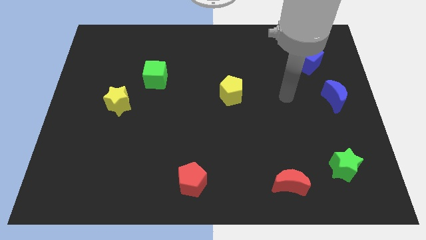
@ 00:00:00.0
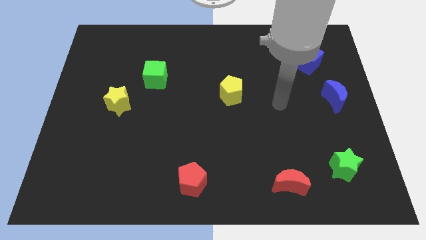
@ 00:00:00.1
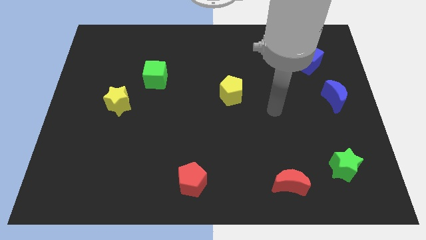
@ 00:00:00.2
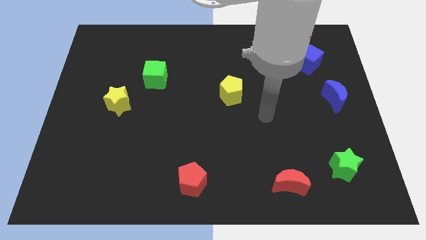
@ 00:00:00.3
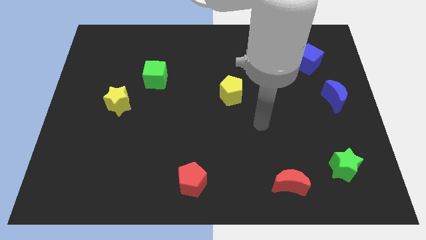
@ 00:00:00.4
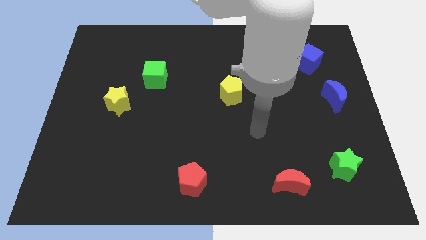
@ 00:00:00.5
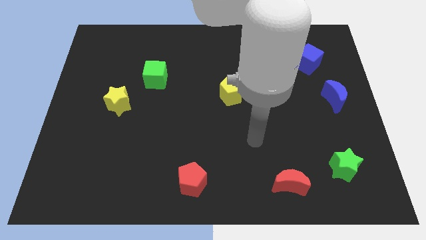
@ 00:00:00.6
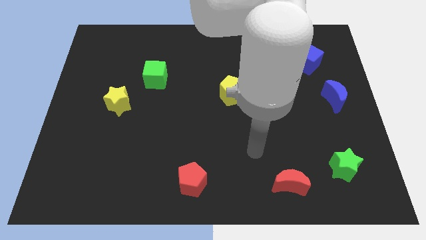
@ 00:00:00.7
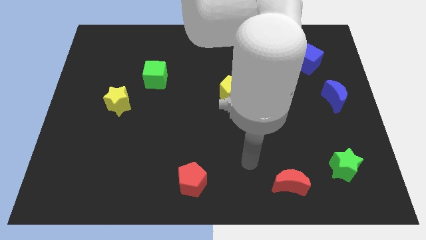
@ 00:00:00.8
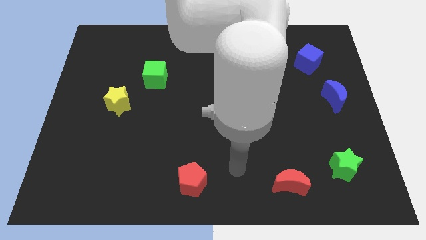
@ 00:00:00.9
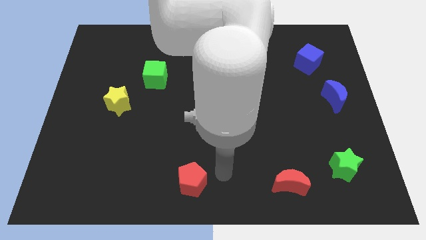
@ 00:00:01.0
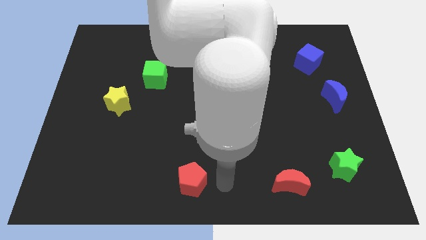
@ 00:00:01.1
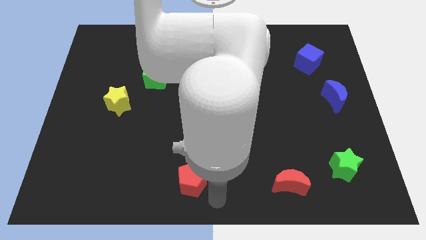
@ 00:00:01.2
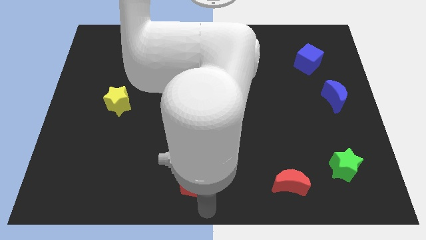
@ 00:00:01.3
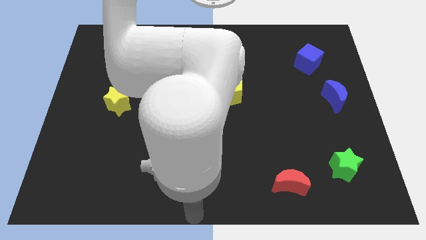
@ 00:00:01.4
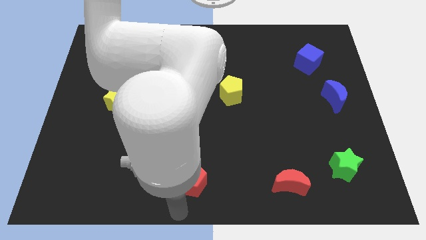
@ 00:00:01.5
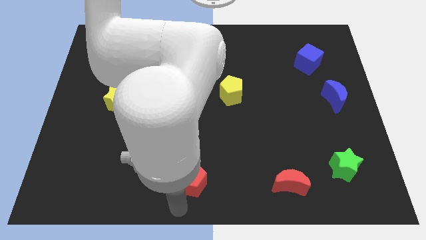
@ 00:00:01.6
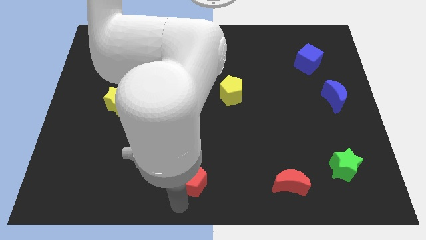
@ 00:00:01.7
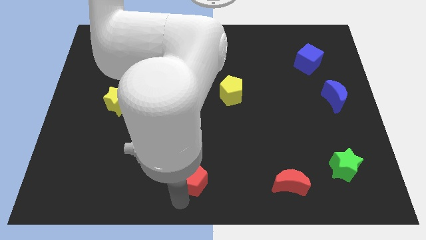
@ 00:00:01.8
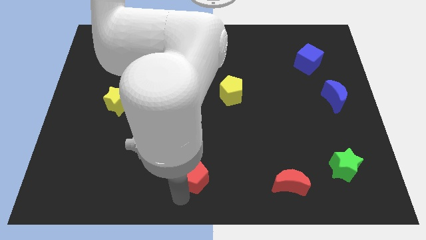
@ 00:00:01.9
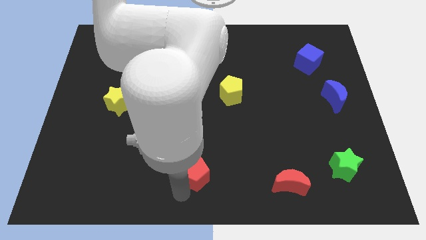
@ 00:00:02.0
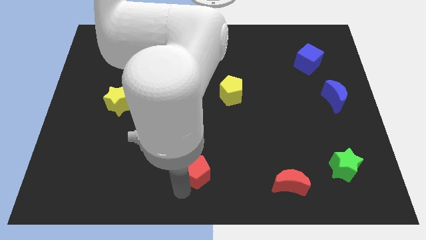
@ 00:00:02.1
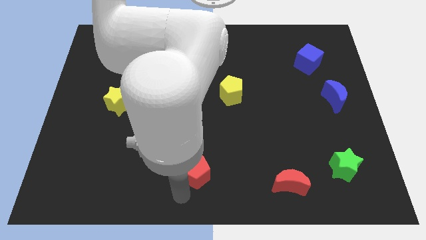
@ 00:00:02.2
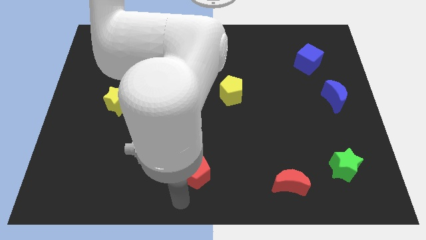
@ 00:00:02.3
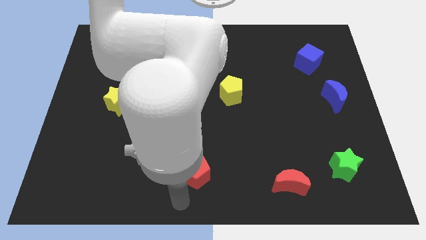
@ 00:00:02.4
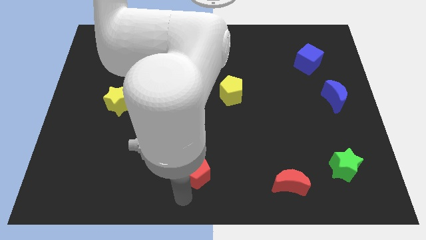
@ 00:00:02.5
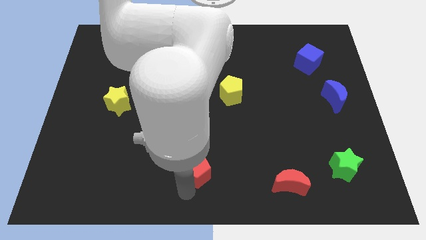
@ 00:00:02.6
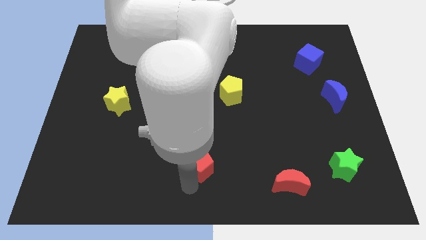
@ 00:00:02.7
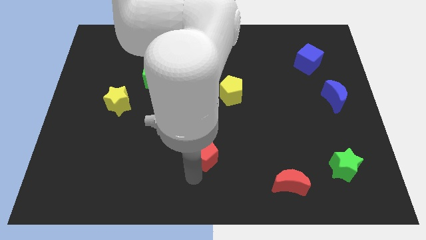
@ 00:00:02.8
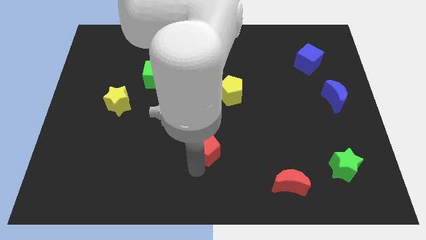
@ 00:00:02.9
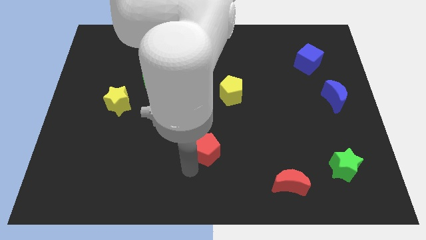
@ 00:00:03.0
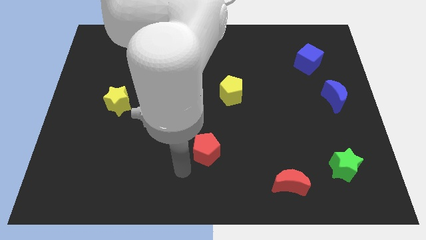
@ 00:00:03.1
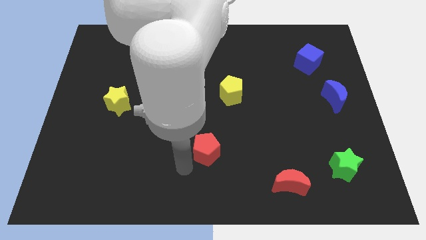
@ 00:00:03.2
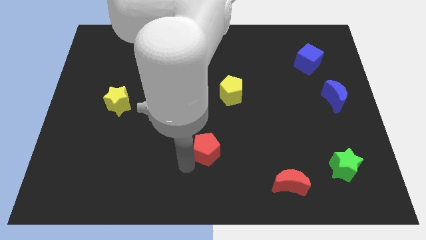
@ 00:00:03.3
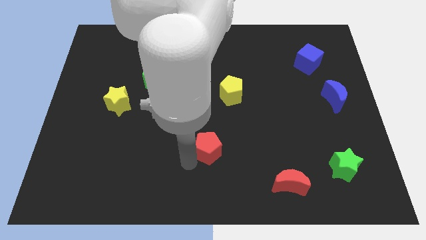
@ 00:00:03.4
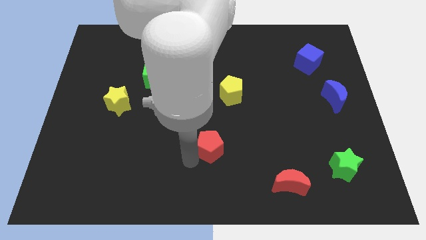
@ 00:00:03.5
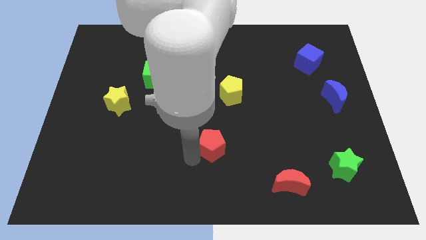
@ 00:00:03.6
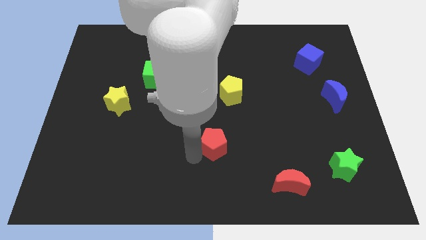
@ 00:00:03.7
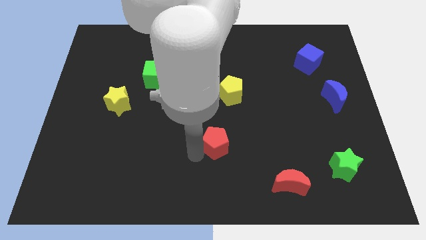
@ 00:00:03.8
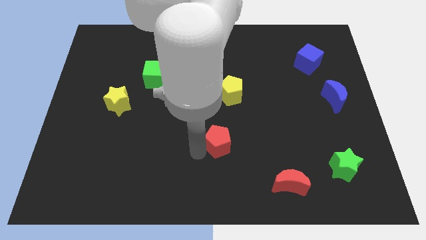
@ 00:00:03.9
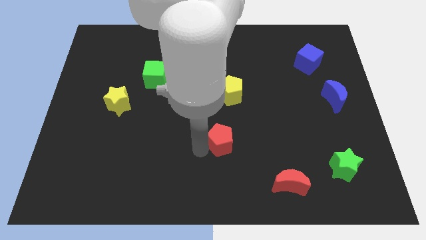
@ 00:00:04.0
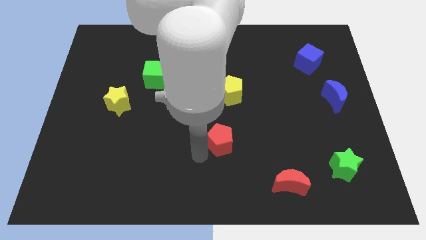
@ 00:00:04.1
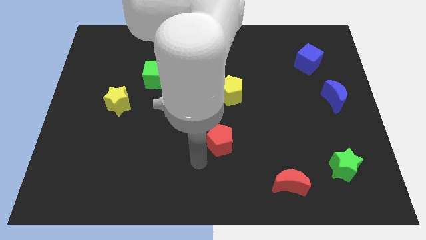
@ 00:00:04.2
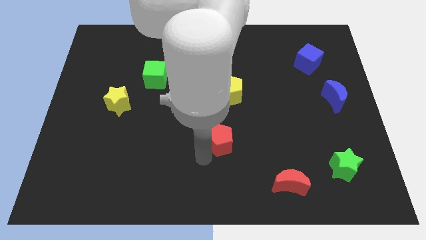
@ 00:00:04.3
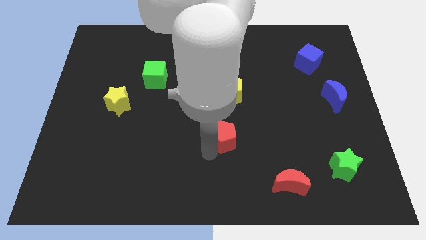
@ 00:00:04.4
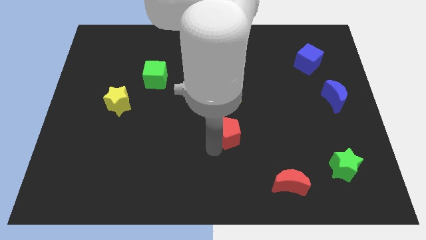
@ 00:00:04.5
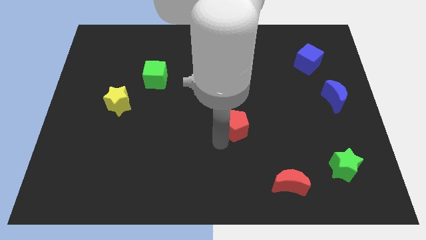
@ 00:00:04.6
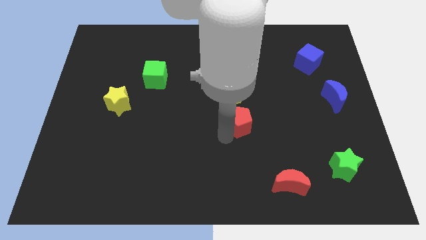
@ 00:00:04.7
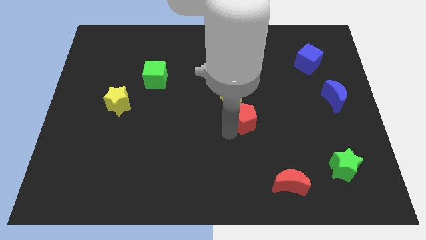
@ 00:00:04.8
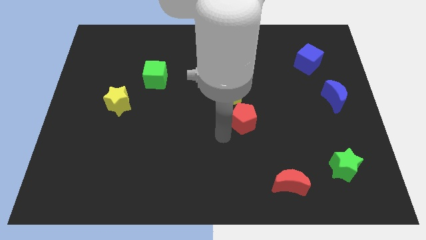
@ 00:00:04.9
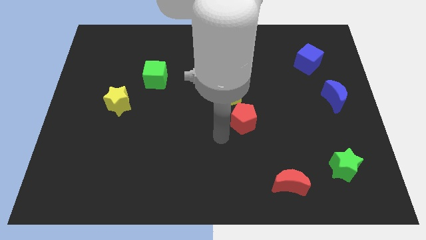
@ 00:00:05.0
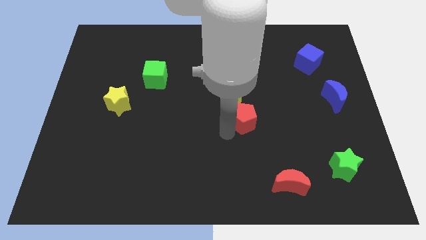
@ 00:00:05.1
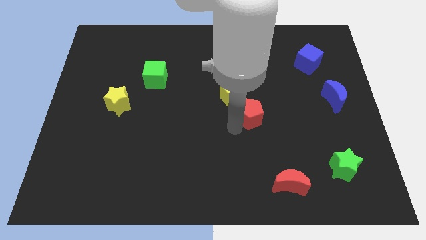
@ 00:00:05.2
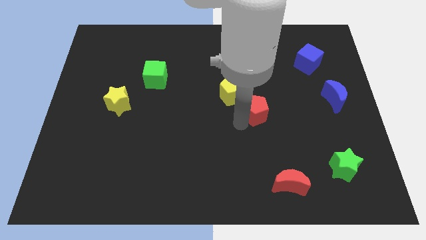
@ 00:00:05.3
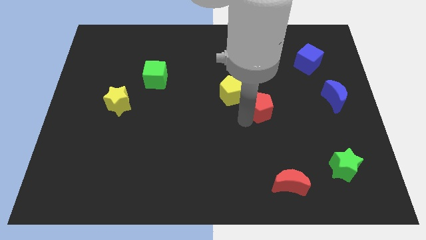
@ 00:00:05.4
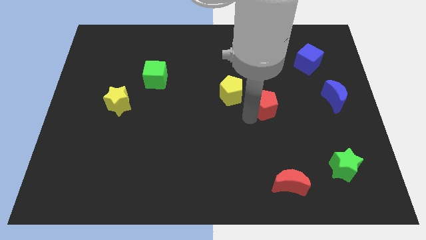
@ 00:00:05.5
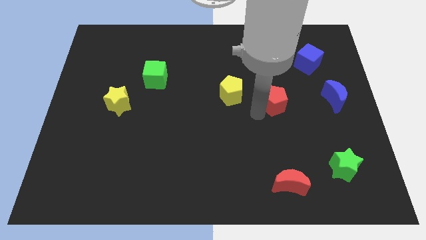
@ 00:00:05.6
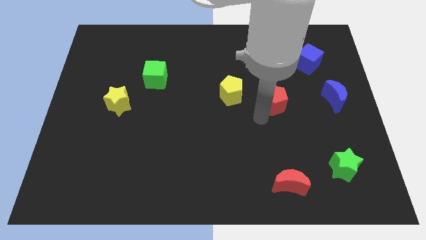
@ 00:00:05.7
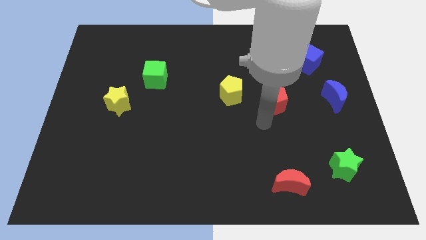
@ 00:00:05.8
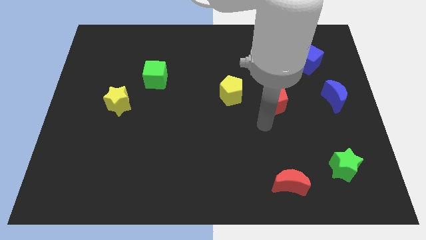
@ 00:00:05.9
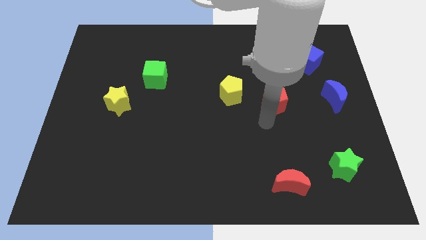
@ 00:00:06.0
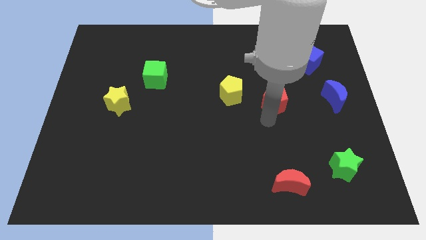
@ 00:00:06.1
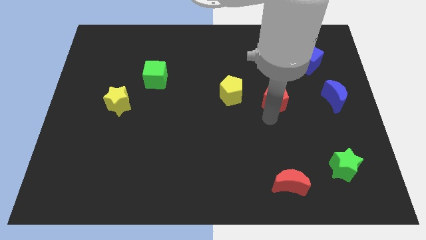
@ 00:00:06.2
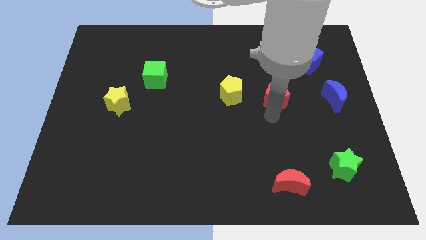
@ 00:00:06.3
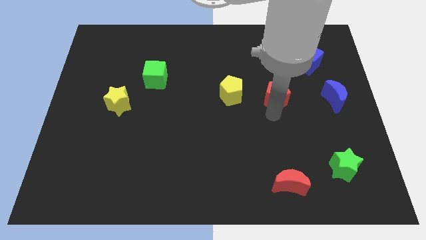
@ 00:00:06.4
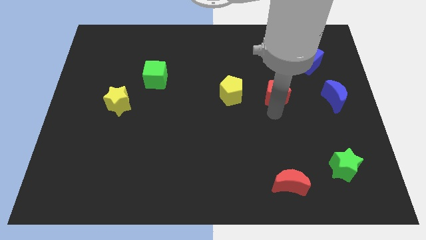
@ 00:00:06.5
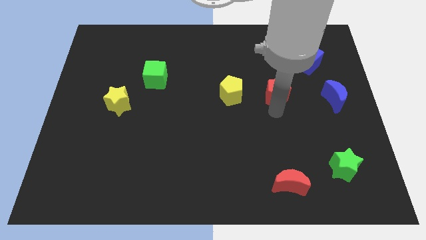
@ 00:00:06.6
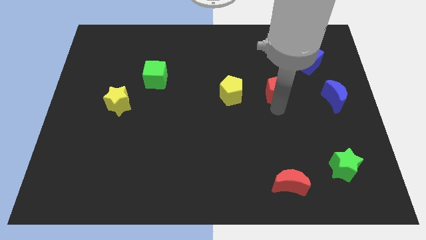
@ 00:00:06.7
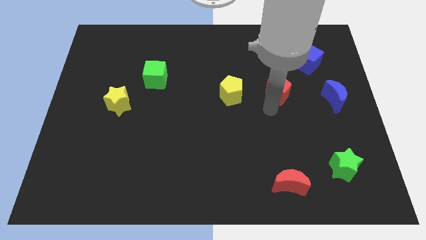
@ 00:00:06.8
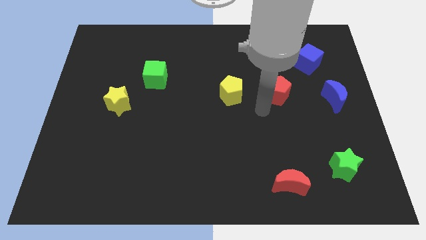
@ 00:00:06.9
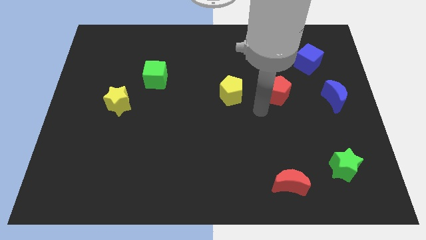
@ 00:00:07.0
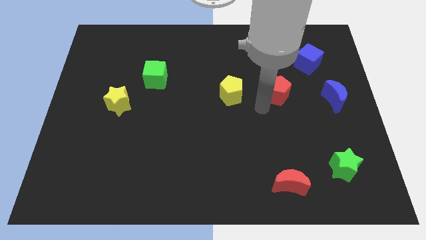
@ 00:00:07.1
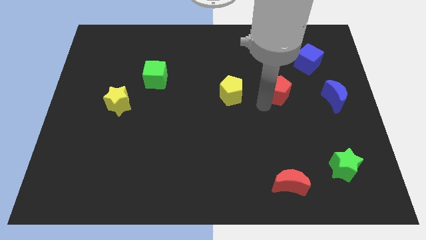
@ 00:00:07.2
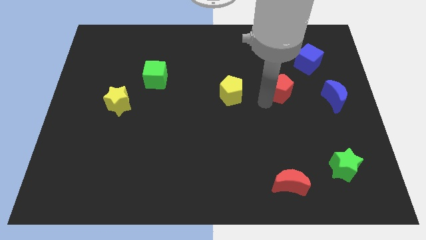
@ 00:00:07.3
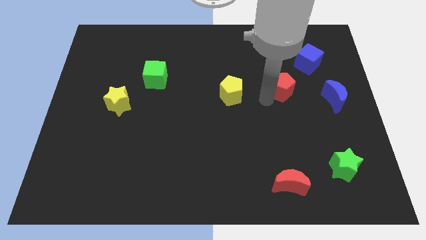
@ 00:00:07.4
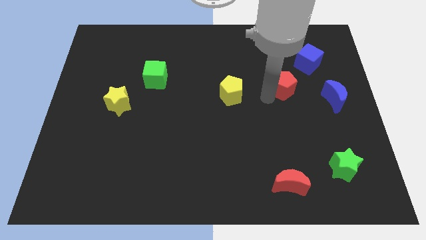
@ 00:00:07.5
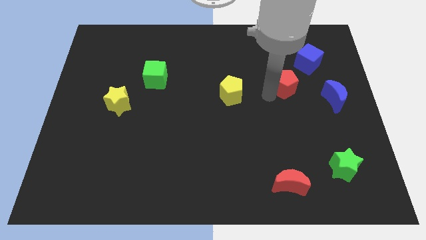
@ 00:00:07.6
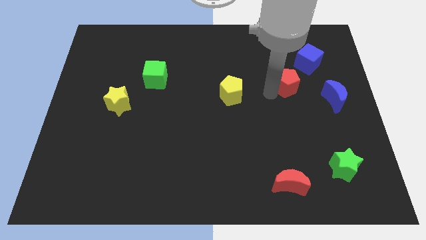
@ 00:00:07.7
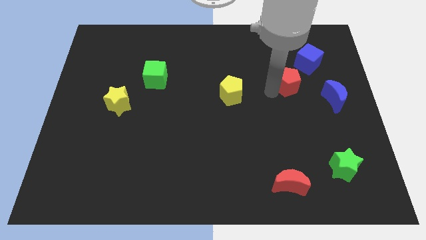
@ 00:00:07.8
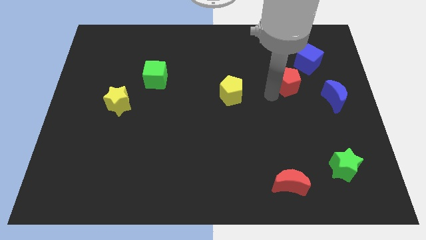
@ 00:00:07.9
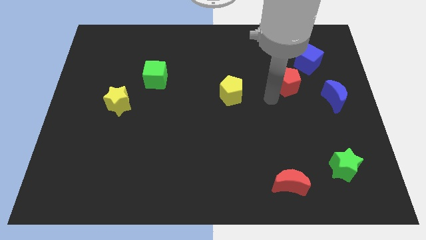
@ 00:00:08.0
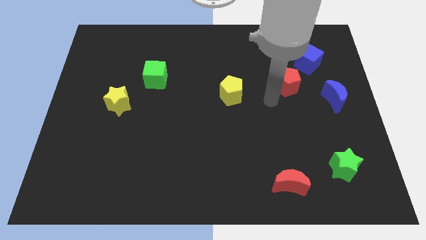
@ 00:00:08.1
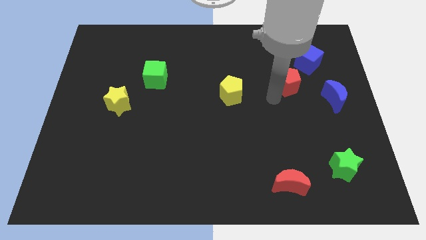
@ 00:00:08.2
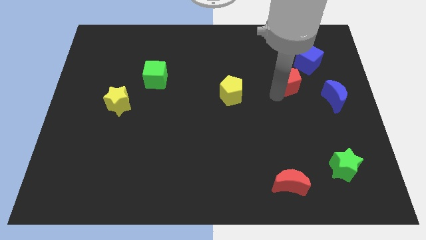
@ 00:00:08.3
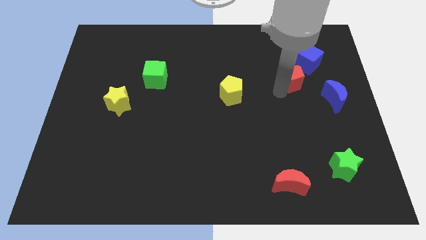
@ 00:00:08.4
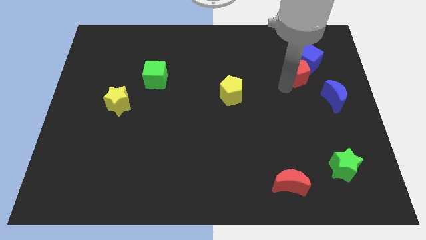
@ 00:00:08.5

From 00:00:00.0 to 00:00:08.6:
move the red pentagon close to the blue cube
